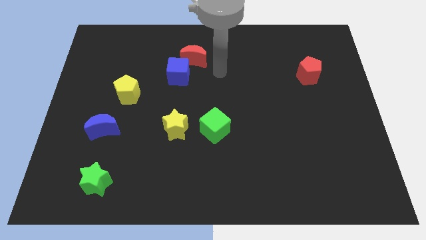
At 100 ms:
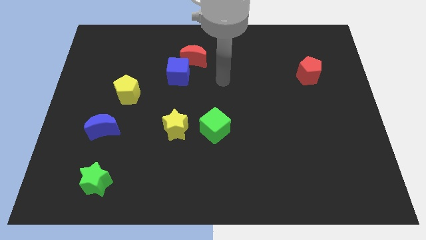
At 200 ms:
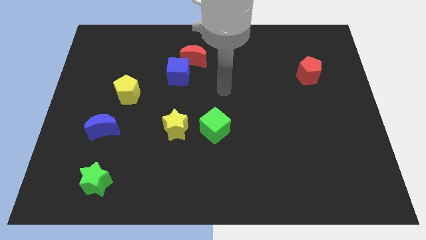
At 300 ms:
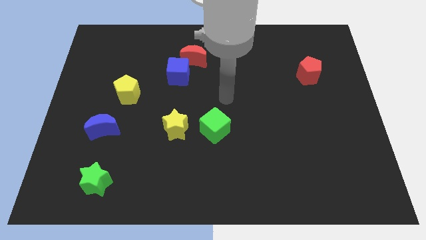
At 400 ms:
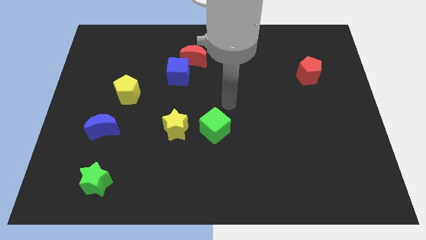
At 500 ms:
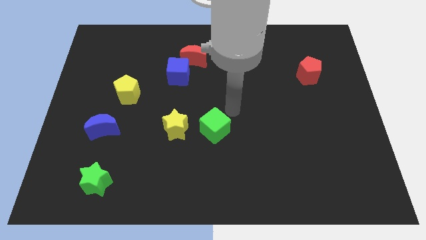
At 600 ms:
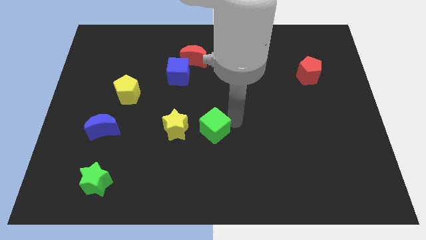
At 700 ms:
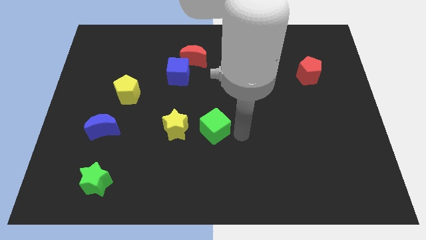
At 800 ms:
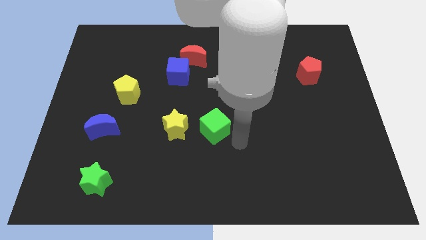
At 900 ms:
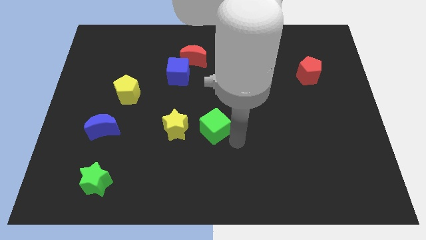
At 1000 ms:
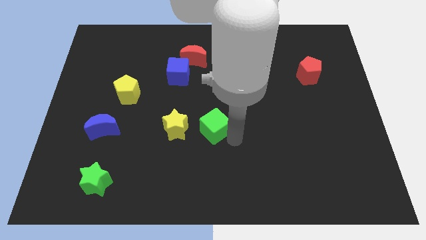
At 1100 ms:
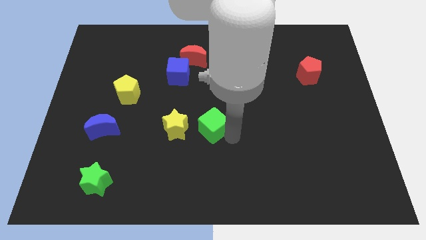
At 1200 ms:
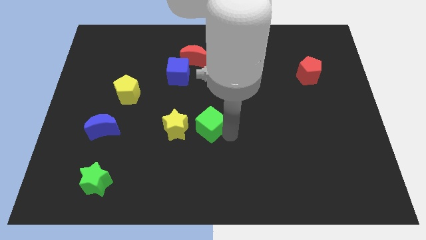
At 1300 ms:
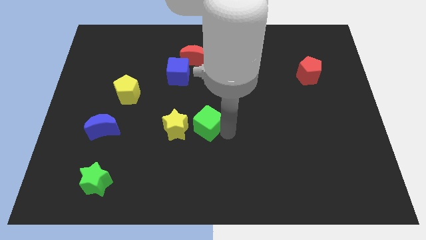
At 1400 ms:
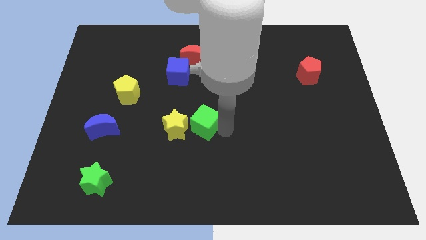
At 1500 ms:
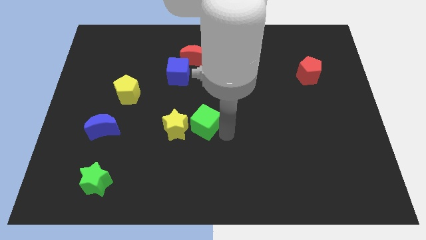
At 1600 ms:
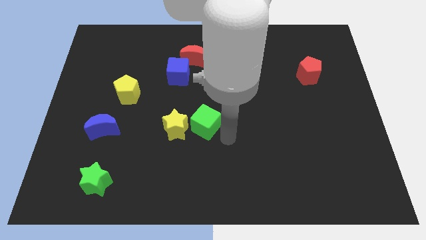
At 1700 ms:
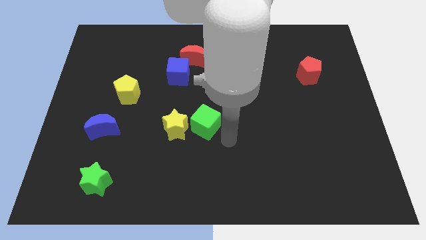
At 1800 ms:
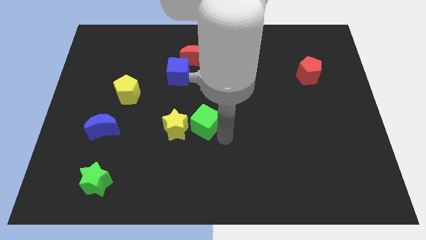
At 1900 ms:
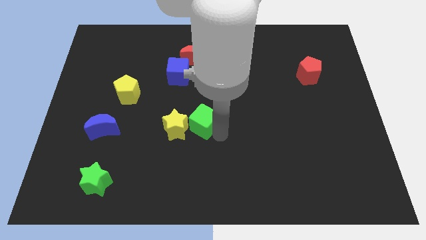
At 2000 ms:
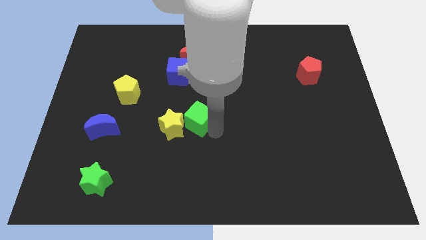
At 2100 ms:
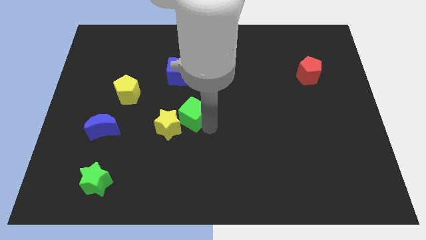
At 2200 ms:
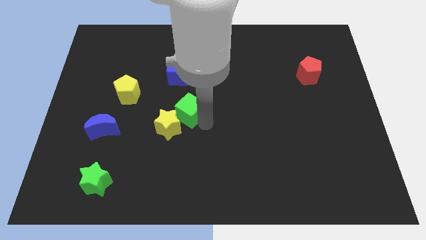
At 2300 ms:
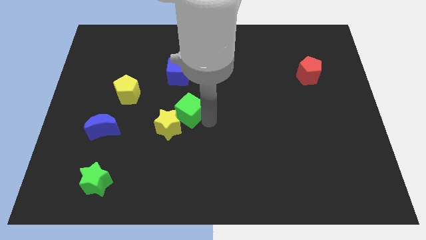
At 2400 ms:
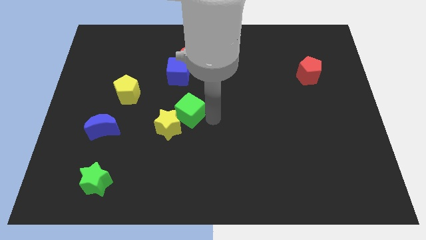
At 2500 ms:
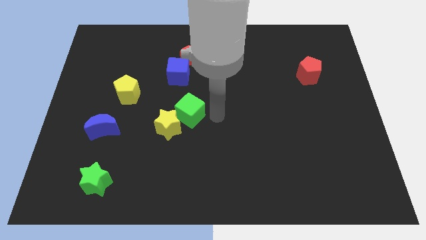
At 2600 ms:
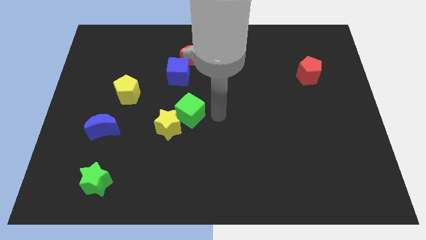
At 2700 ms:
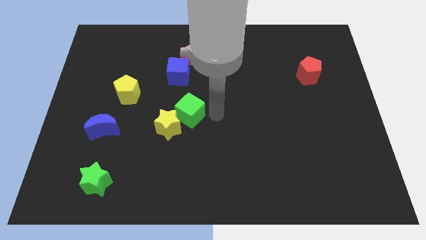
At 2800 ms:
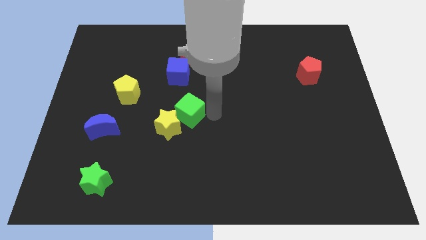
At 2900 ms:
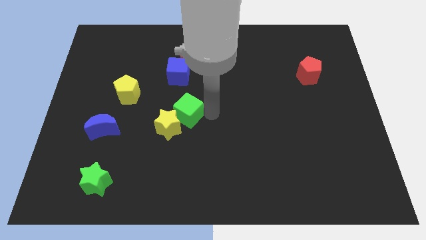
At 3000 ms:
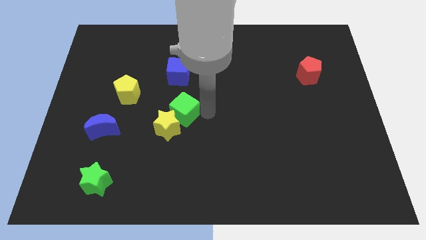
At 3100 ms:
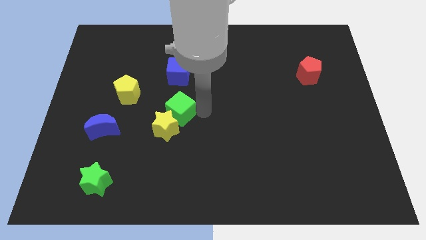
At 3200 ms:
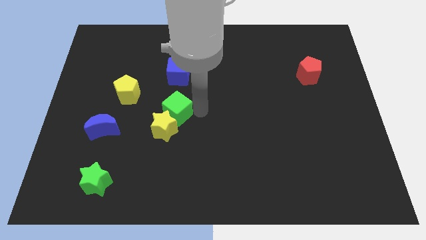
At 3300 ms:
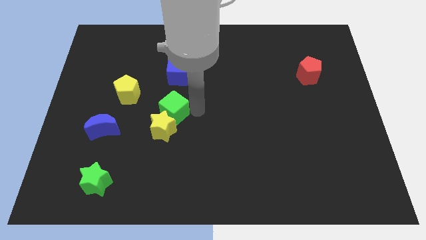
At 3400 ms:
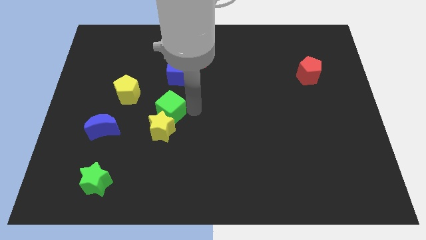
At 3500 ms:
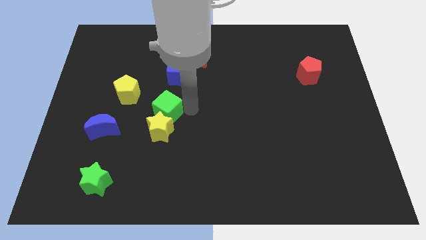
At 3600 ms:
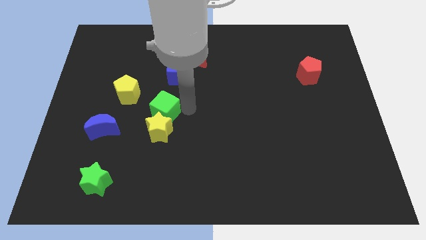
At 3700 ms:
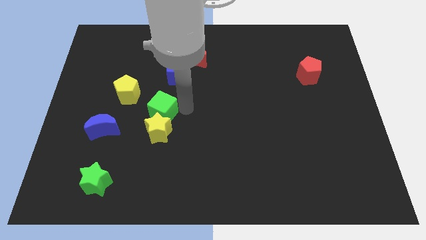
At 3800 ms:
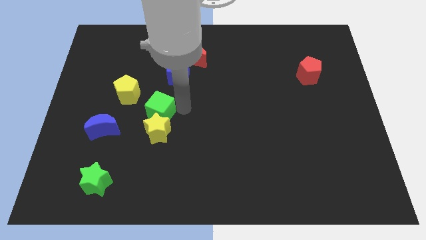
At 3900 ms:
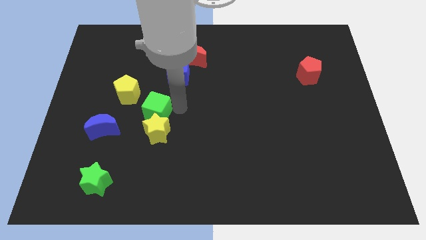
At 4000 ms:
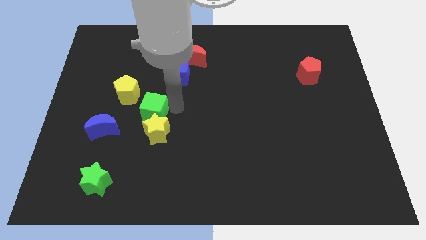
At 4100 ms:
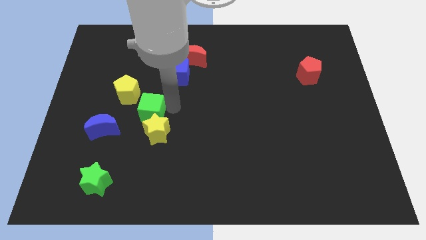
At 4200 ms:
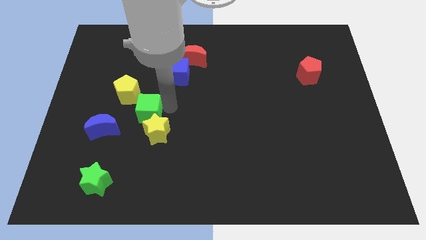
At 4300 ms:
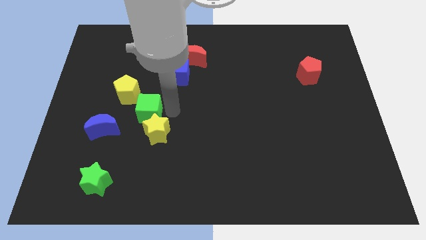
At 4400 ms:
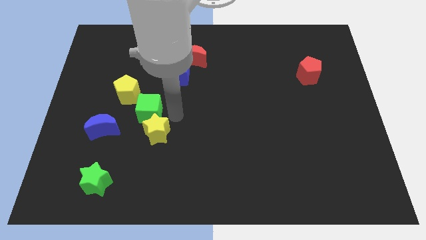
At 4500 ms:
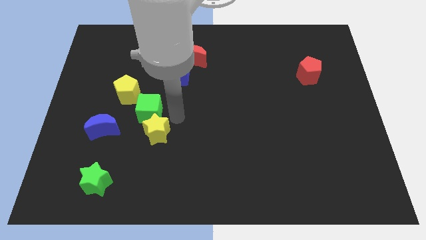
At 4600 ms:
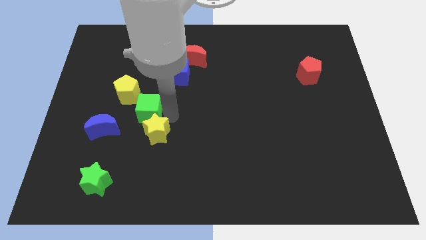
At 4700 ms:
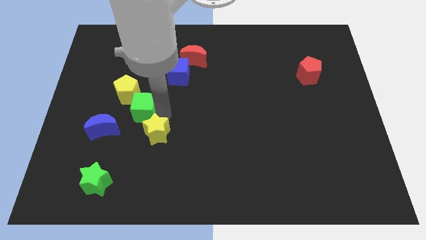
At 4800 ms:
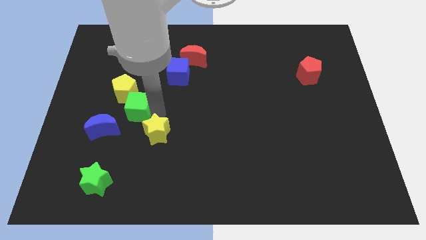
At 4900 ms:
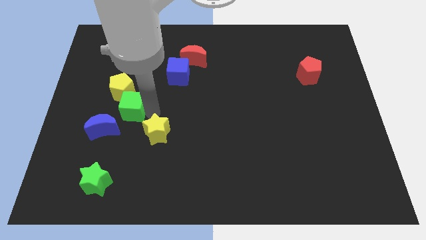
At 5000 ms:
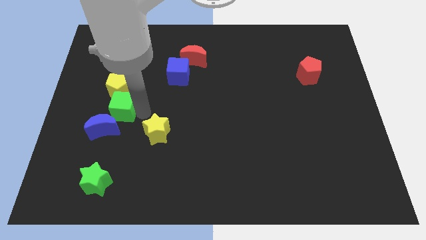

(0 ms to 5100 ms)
put the green cube to the top of the blue moon

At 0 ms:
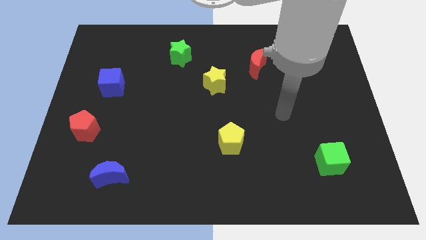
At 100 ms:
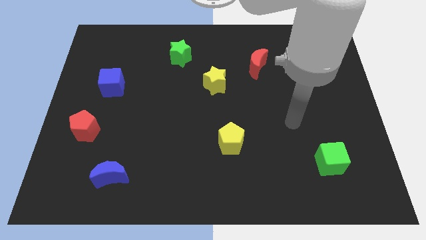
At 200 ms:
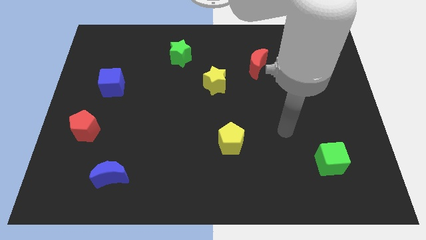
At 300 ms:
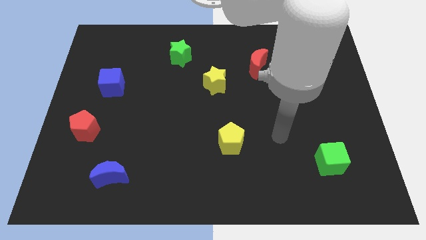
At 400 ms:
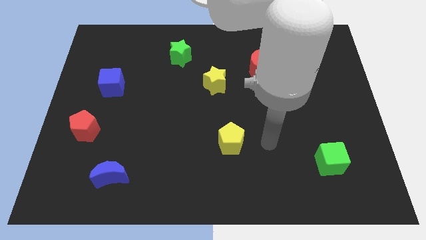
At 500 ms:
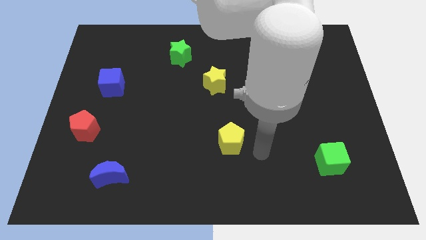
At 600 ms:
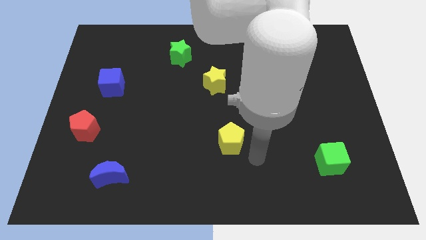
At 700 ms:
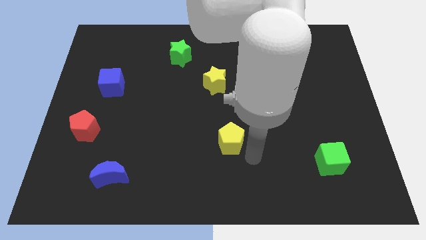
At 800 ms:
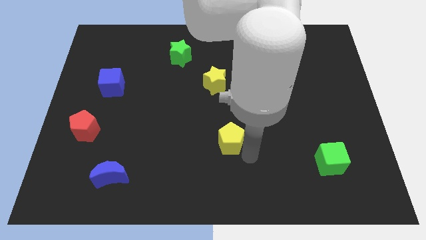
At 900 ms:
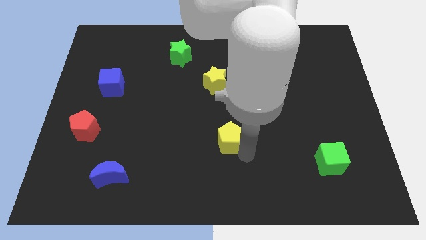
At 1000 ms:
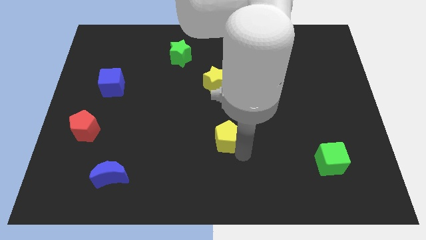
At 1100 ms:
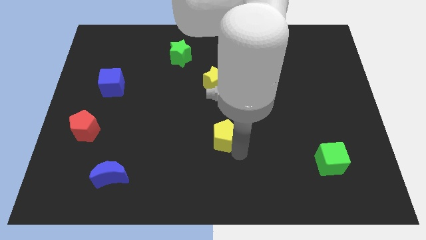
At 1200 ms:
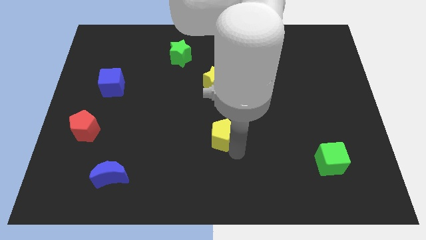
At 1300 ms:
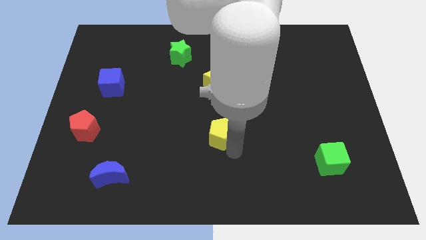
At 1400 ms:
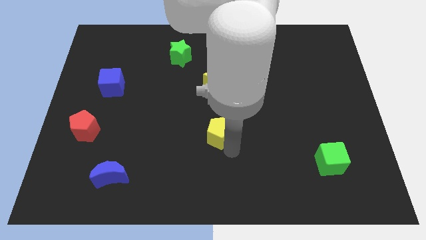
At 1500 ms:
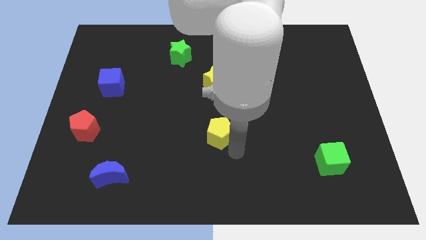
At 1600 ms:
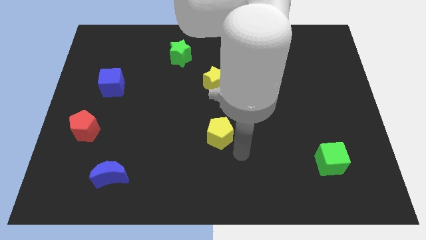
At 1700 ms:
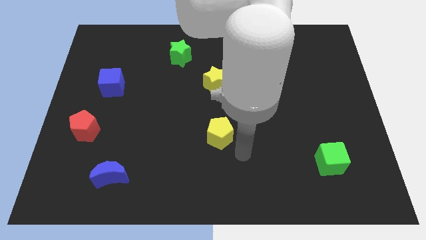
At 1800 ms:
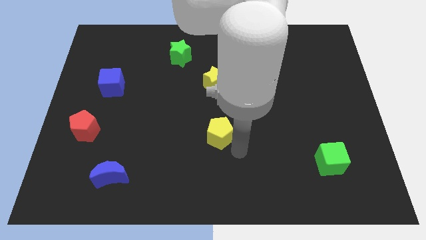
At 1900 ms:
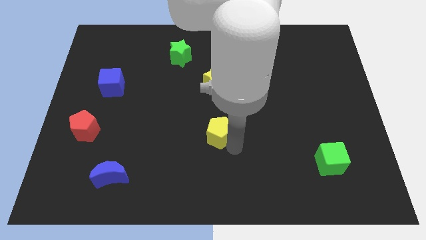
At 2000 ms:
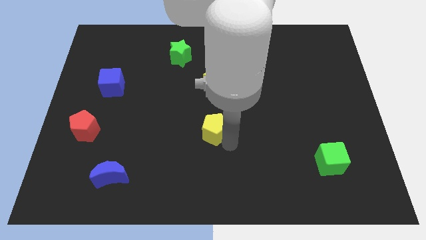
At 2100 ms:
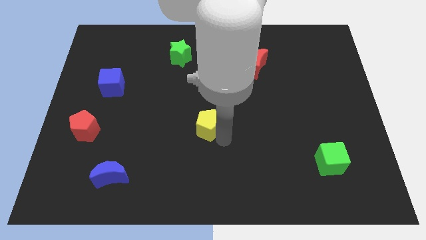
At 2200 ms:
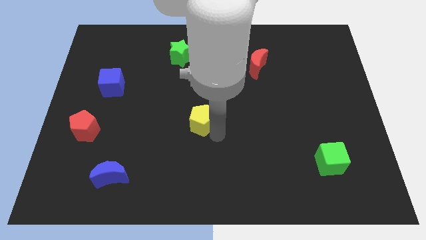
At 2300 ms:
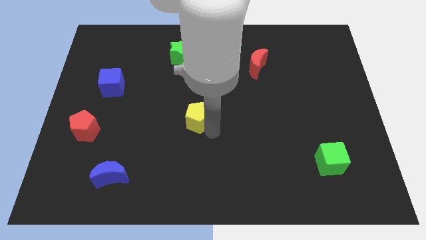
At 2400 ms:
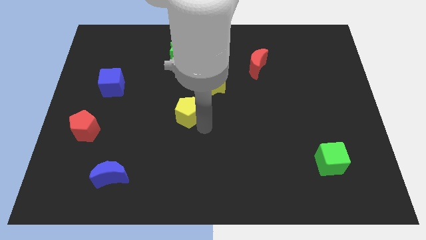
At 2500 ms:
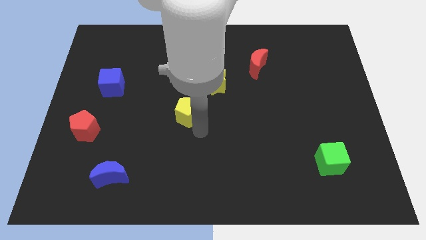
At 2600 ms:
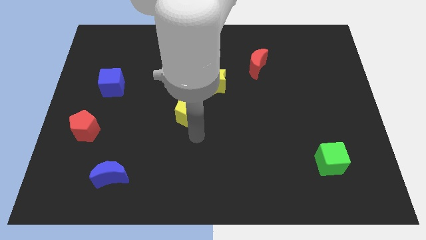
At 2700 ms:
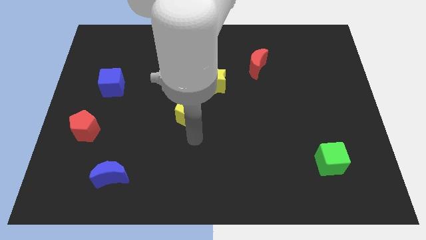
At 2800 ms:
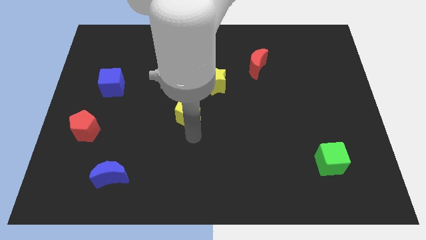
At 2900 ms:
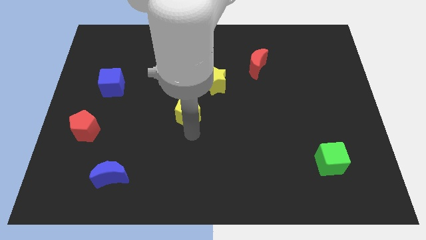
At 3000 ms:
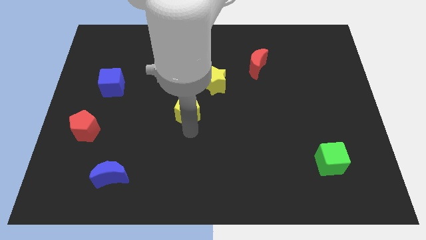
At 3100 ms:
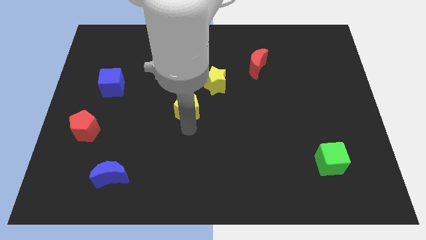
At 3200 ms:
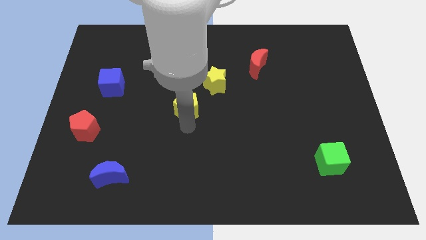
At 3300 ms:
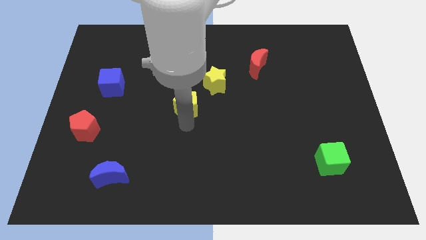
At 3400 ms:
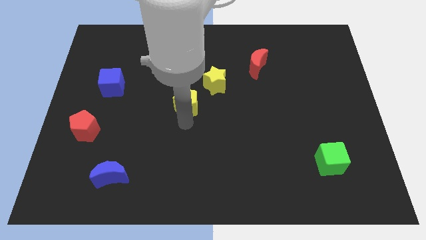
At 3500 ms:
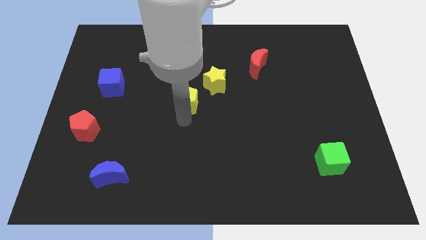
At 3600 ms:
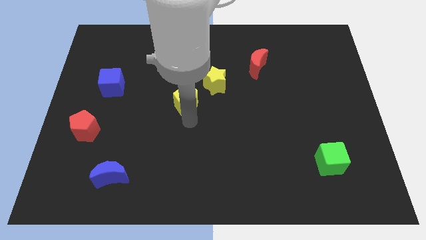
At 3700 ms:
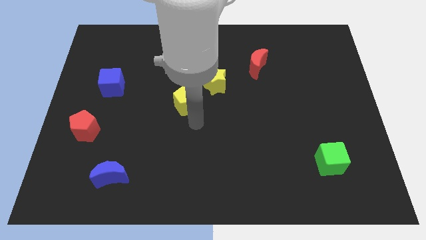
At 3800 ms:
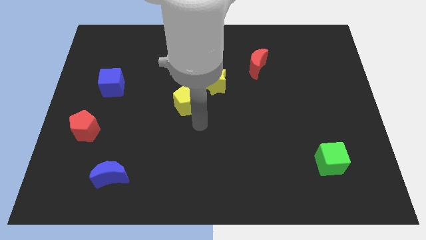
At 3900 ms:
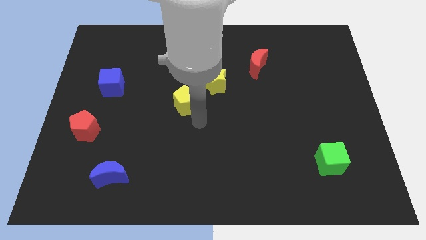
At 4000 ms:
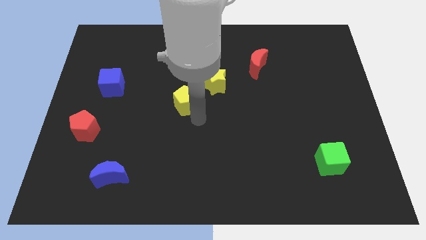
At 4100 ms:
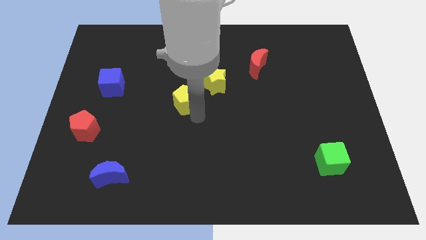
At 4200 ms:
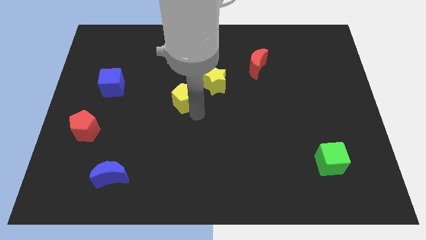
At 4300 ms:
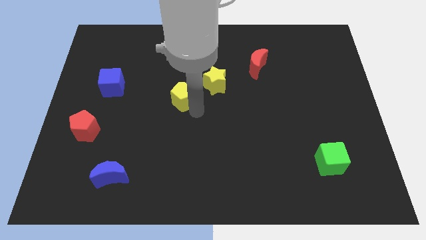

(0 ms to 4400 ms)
slide the yellow pentagon just left of the yellow star
